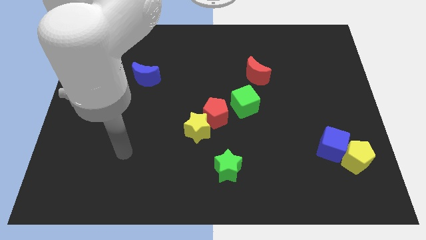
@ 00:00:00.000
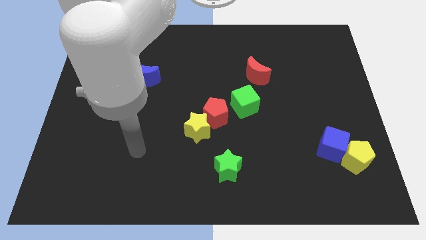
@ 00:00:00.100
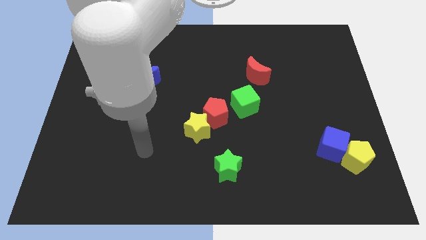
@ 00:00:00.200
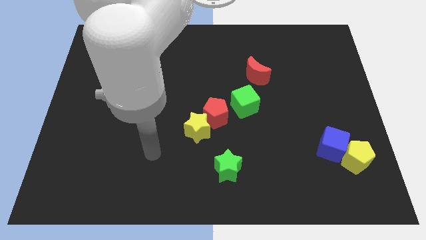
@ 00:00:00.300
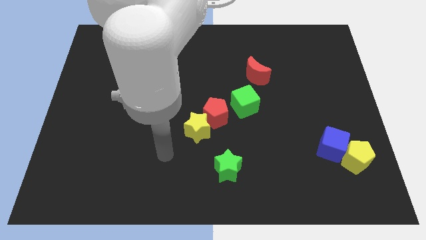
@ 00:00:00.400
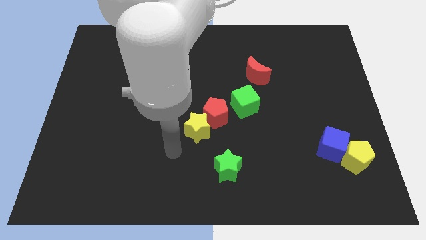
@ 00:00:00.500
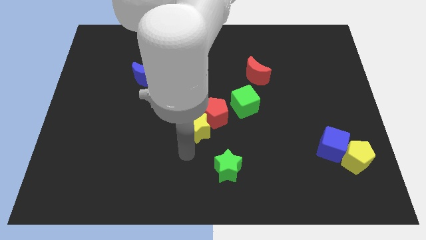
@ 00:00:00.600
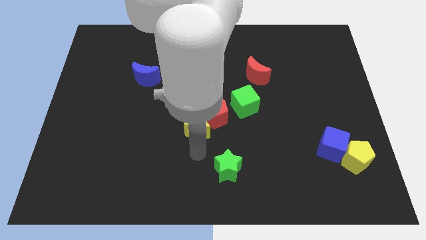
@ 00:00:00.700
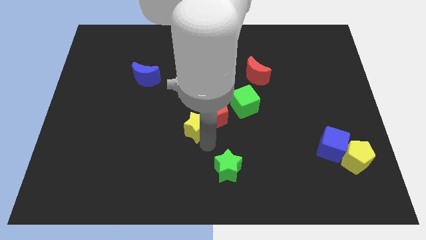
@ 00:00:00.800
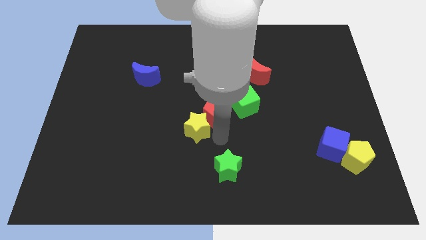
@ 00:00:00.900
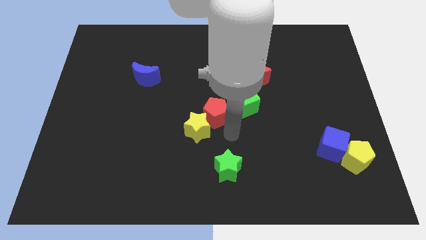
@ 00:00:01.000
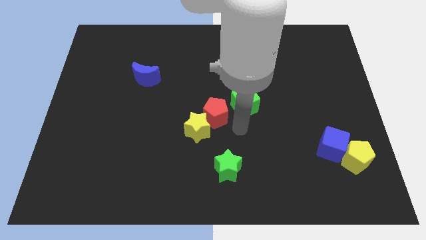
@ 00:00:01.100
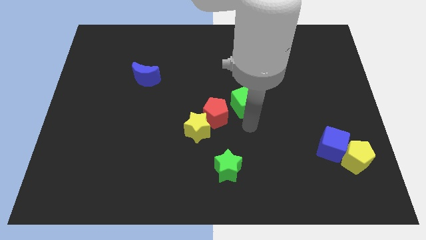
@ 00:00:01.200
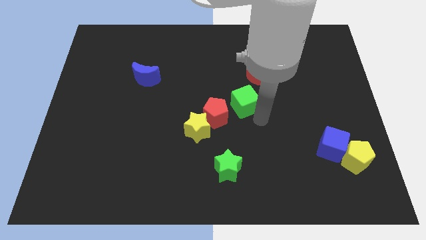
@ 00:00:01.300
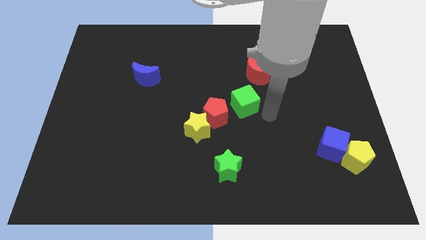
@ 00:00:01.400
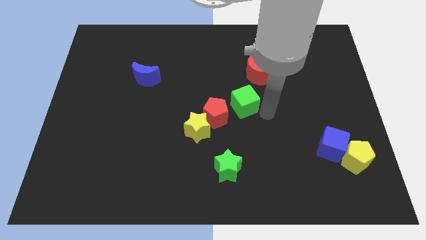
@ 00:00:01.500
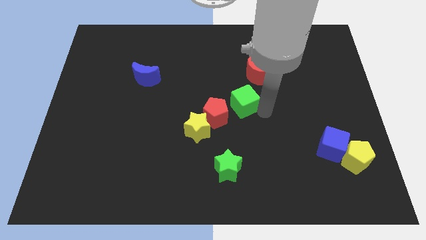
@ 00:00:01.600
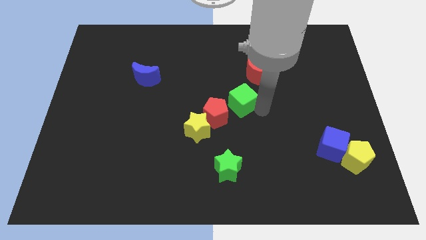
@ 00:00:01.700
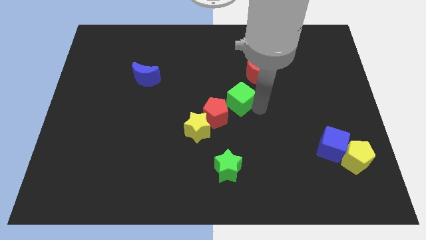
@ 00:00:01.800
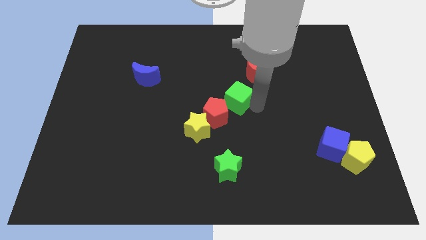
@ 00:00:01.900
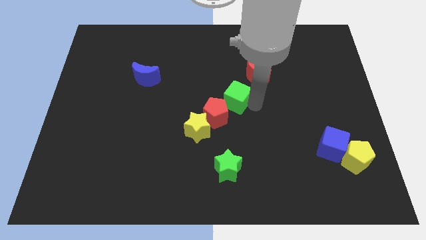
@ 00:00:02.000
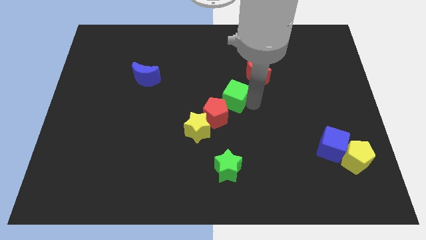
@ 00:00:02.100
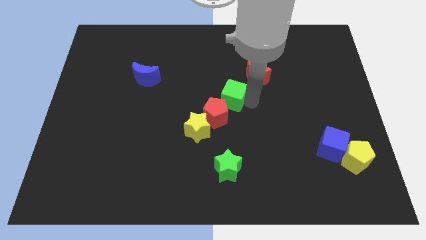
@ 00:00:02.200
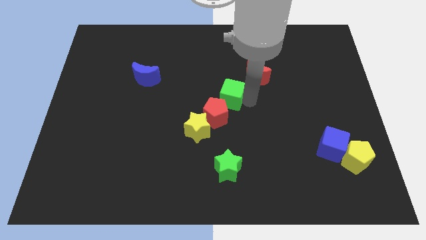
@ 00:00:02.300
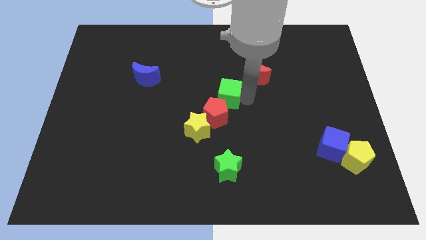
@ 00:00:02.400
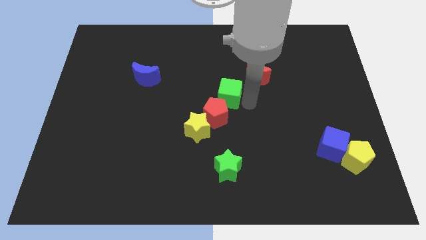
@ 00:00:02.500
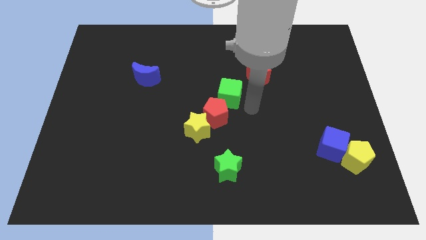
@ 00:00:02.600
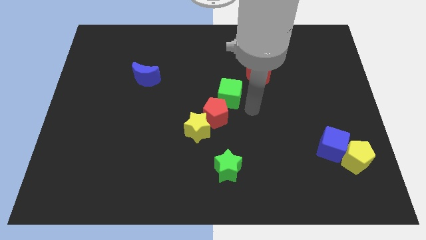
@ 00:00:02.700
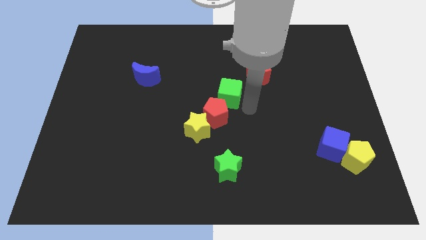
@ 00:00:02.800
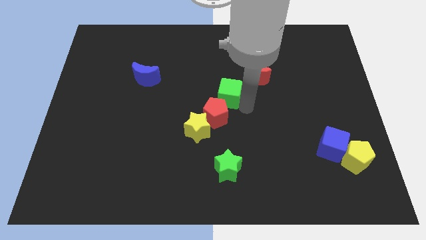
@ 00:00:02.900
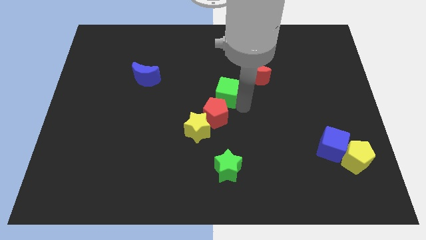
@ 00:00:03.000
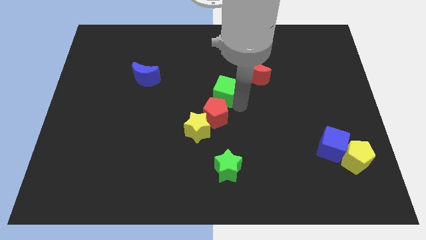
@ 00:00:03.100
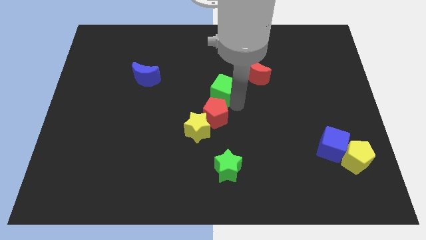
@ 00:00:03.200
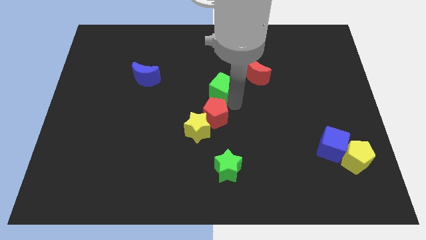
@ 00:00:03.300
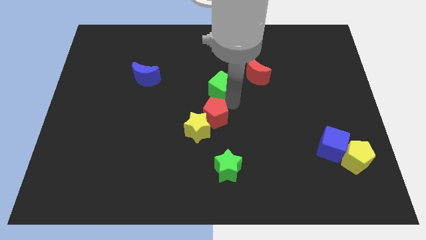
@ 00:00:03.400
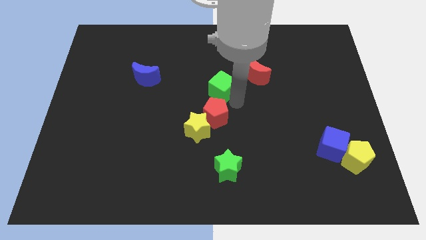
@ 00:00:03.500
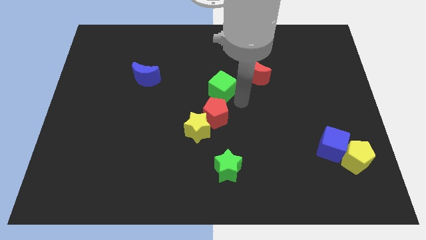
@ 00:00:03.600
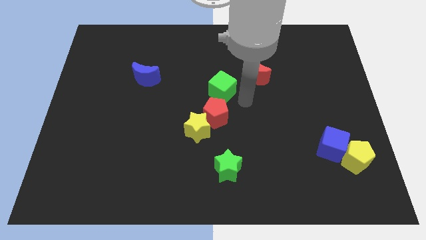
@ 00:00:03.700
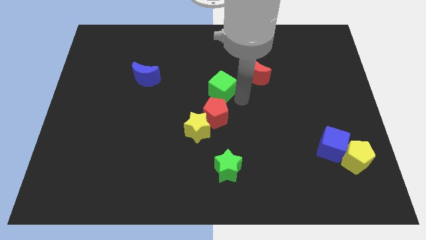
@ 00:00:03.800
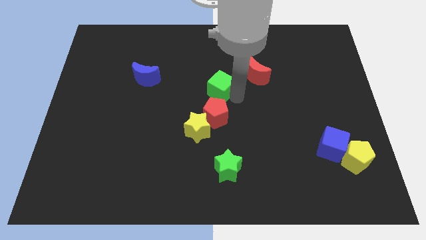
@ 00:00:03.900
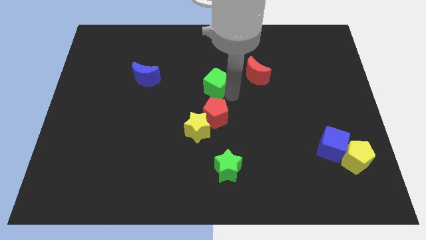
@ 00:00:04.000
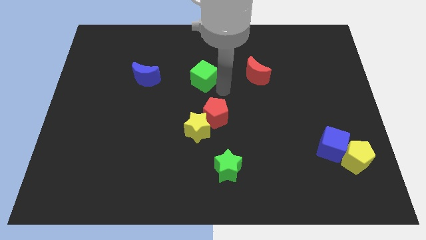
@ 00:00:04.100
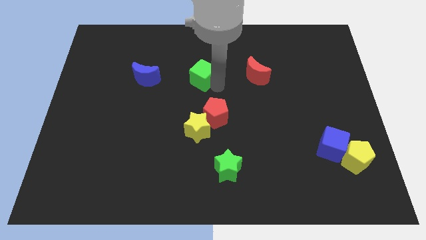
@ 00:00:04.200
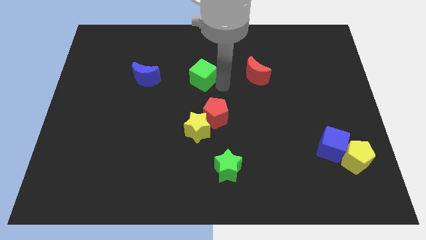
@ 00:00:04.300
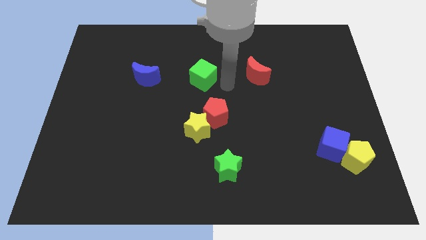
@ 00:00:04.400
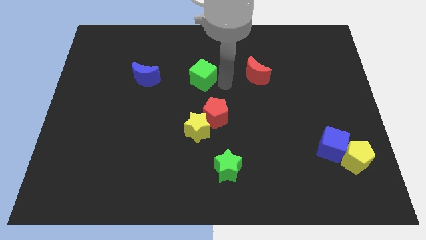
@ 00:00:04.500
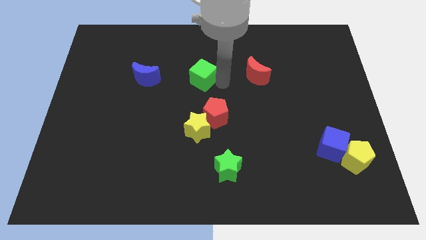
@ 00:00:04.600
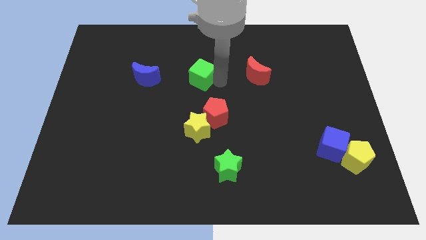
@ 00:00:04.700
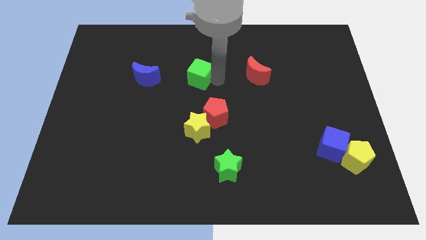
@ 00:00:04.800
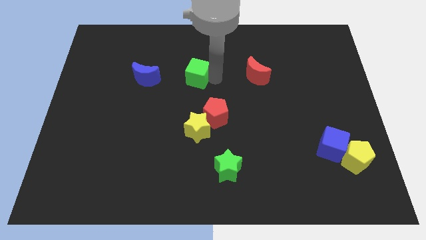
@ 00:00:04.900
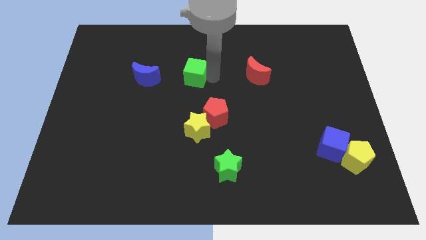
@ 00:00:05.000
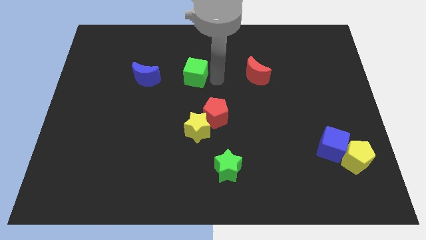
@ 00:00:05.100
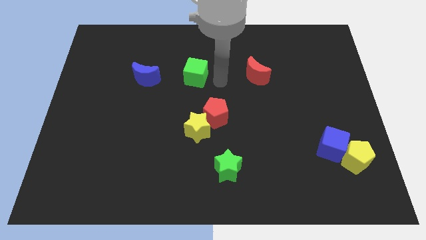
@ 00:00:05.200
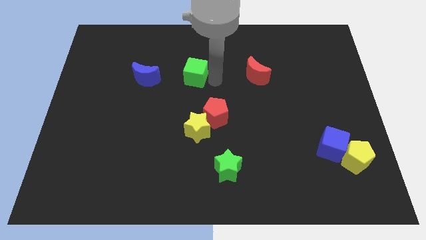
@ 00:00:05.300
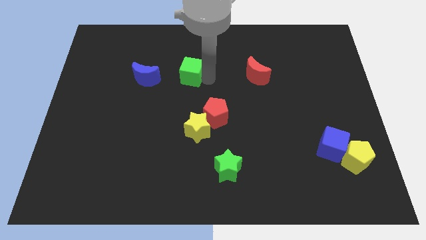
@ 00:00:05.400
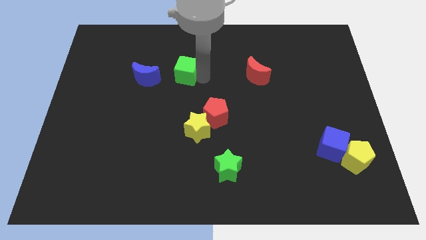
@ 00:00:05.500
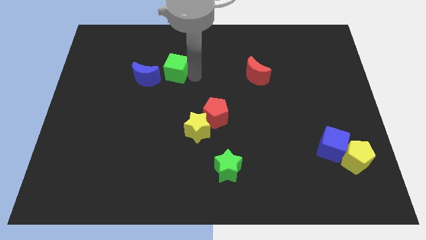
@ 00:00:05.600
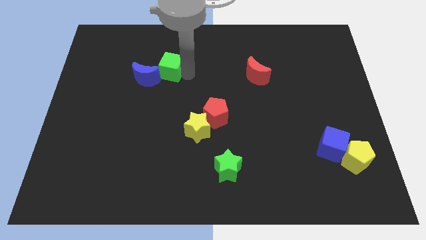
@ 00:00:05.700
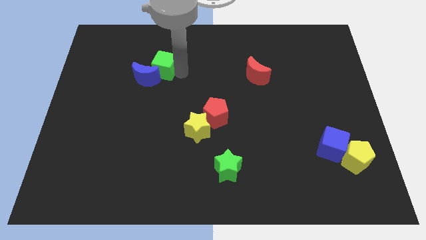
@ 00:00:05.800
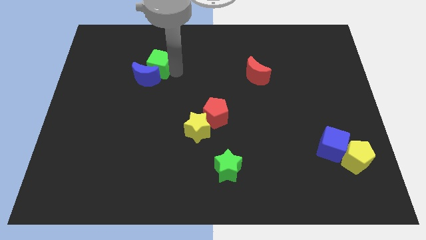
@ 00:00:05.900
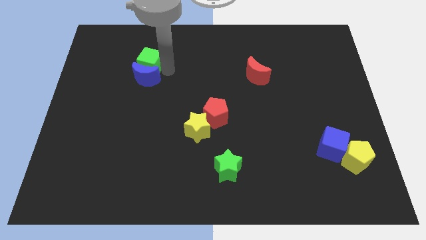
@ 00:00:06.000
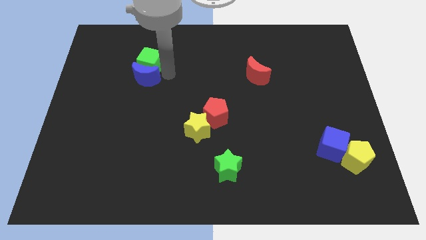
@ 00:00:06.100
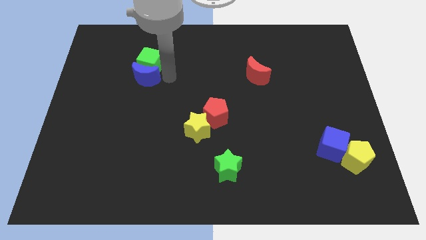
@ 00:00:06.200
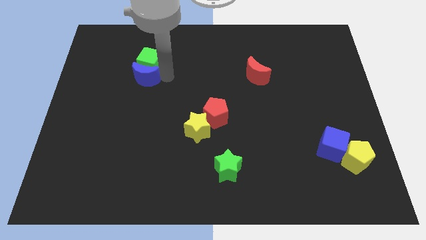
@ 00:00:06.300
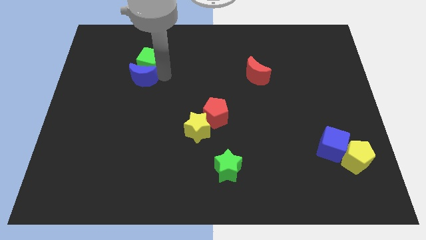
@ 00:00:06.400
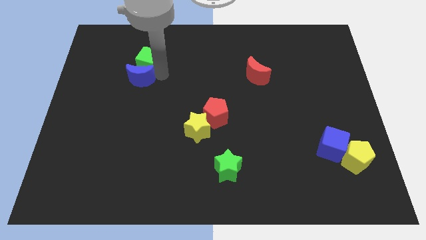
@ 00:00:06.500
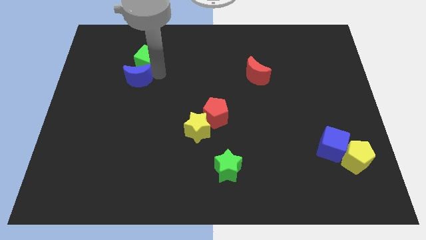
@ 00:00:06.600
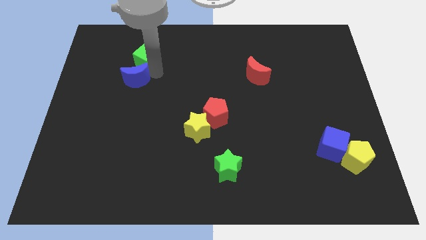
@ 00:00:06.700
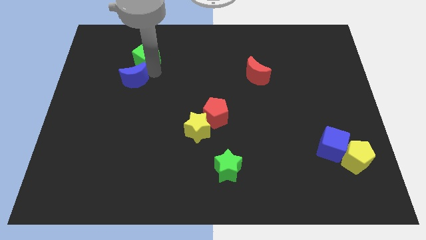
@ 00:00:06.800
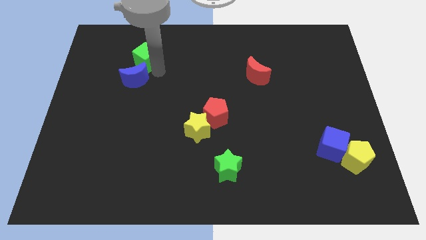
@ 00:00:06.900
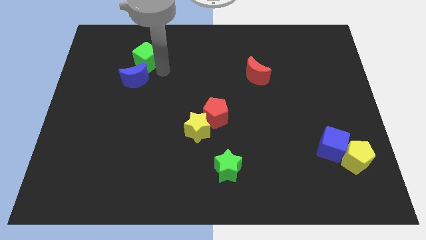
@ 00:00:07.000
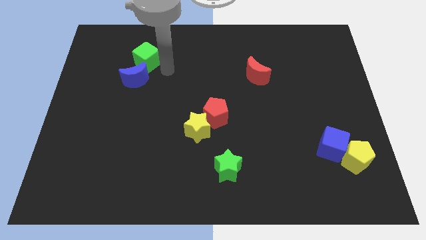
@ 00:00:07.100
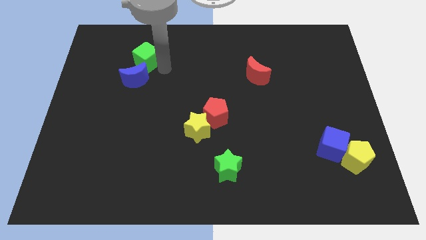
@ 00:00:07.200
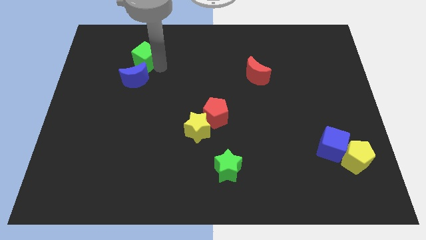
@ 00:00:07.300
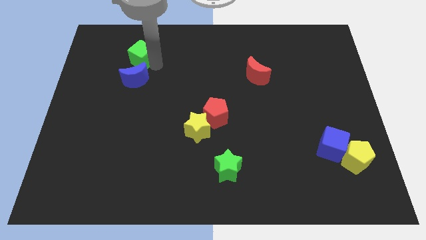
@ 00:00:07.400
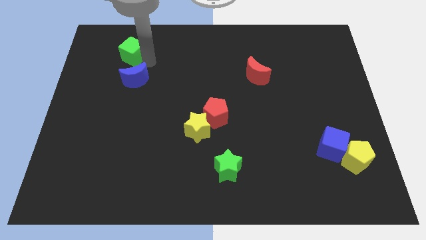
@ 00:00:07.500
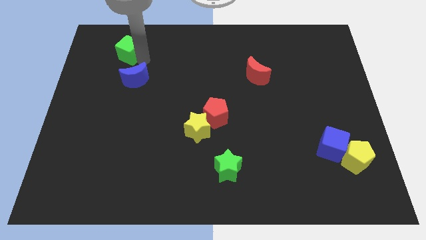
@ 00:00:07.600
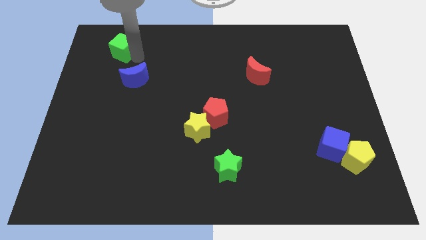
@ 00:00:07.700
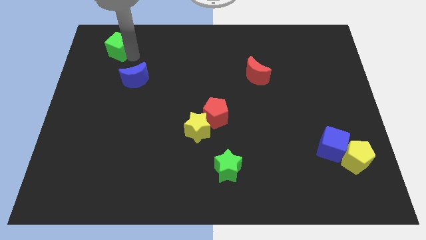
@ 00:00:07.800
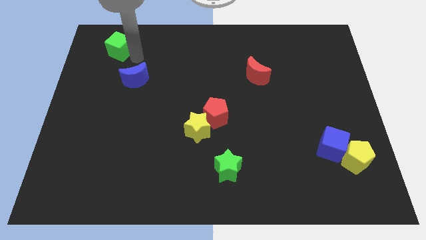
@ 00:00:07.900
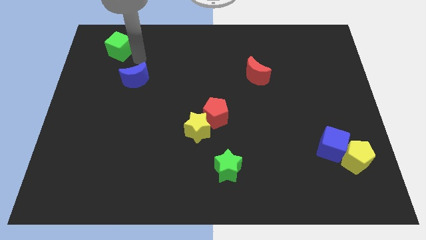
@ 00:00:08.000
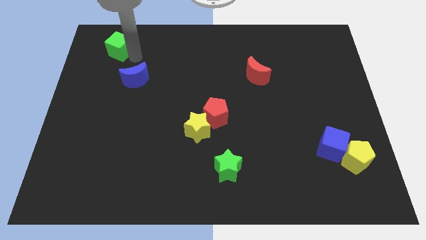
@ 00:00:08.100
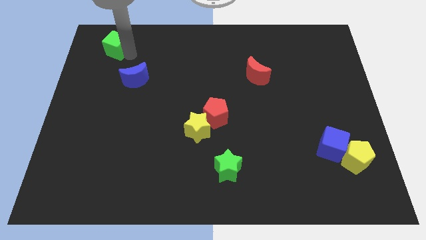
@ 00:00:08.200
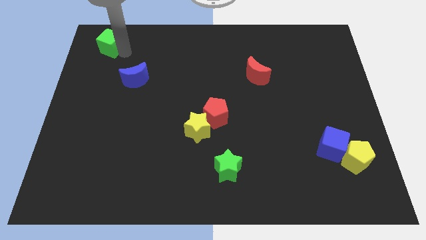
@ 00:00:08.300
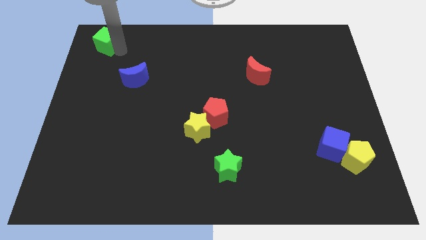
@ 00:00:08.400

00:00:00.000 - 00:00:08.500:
slide the green cube to the top left of the board
